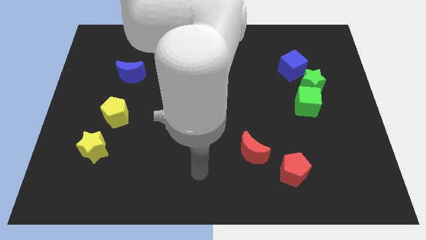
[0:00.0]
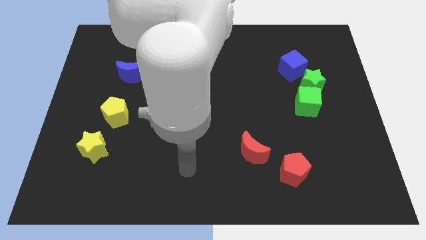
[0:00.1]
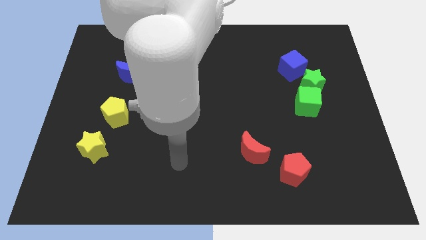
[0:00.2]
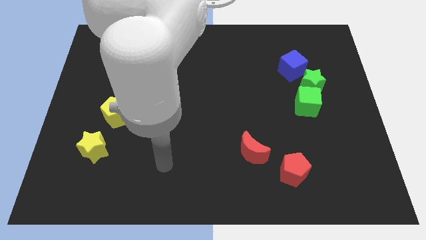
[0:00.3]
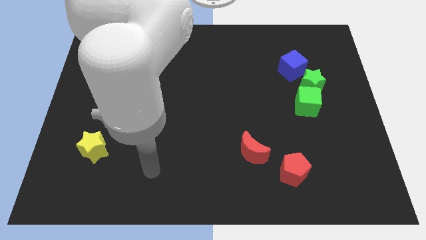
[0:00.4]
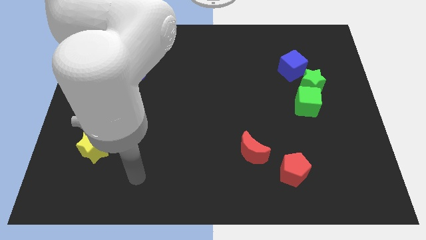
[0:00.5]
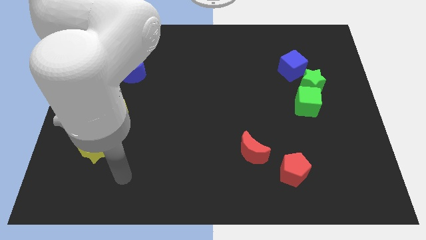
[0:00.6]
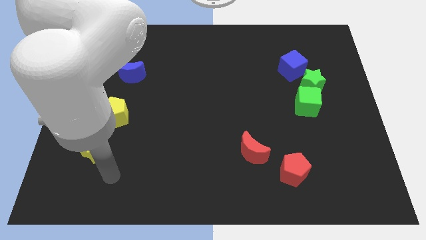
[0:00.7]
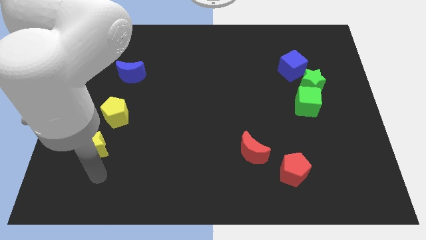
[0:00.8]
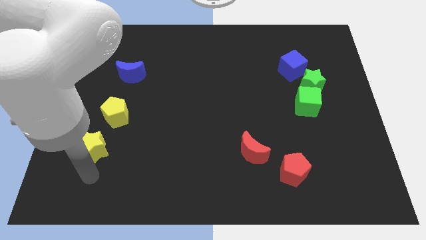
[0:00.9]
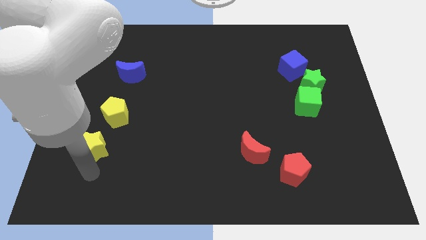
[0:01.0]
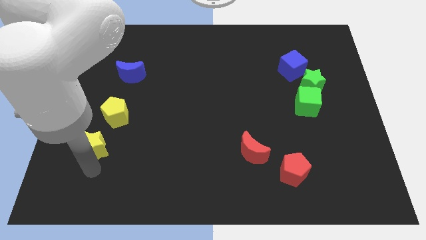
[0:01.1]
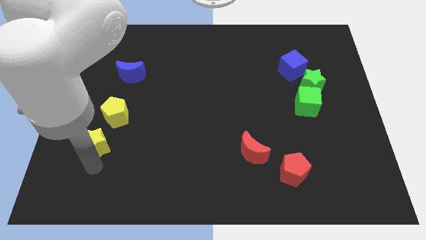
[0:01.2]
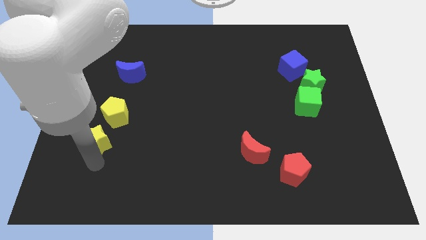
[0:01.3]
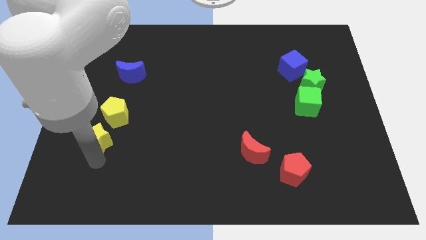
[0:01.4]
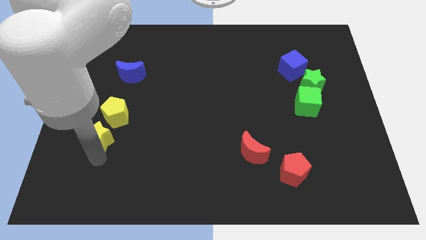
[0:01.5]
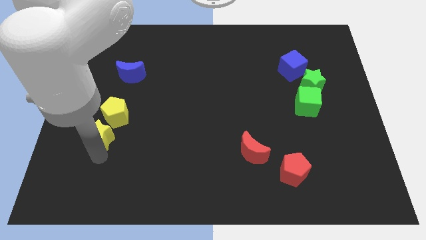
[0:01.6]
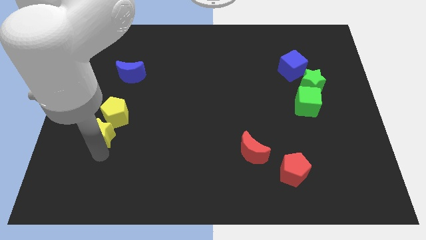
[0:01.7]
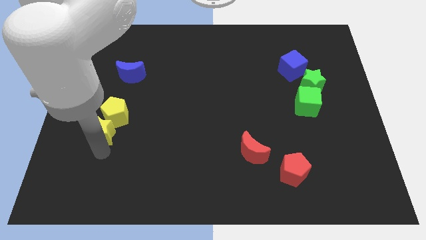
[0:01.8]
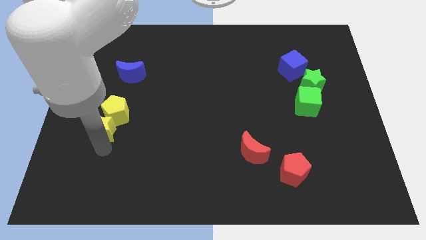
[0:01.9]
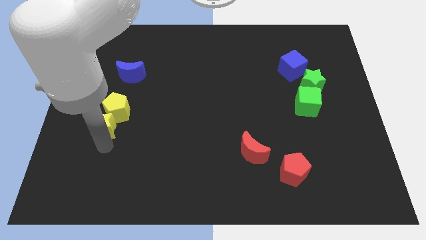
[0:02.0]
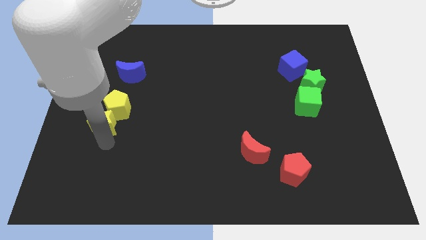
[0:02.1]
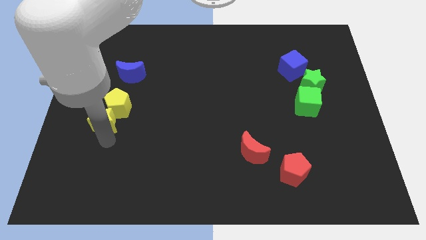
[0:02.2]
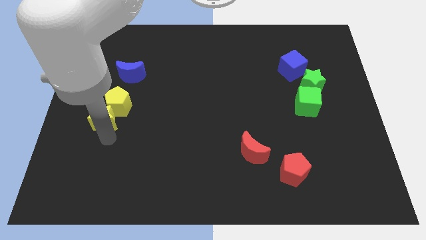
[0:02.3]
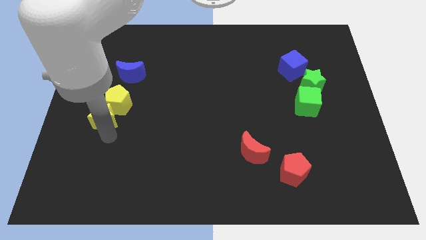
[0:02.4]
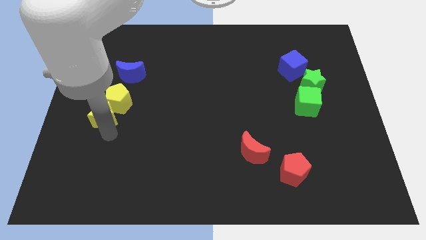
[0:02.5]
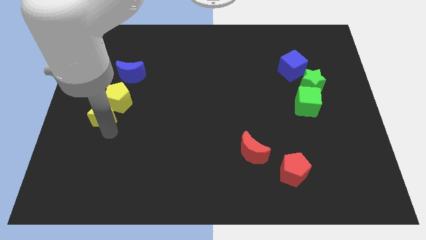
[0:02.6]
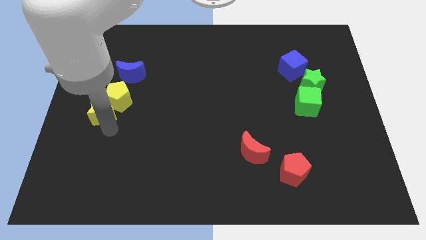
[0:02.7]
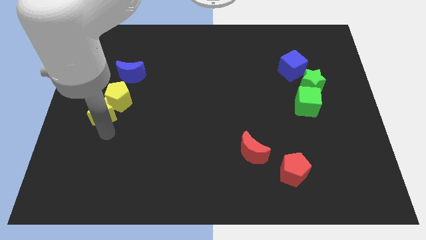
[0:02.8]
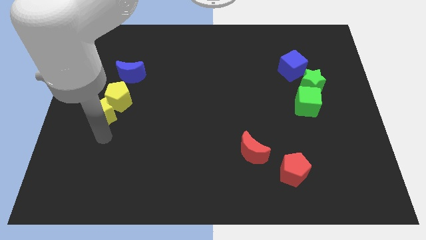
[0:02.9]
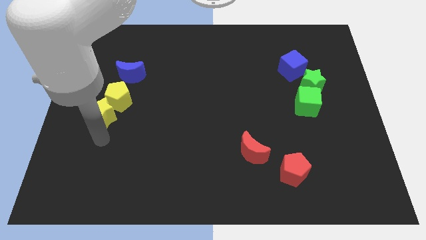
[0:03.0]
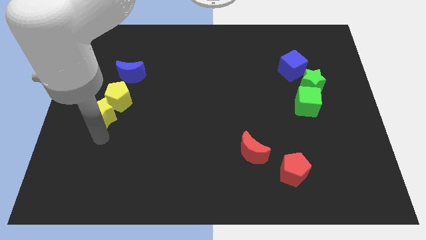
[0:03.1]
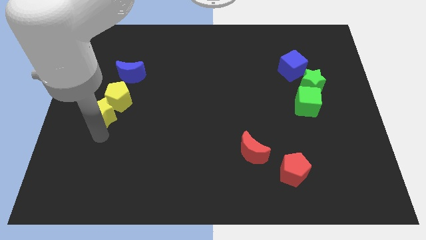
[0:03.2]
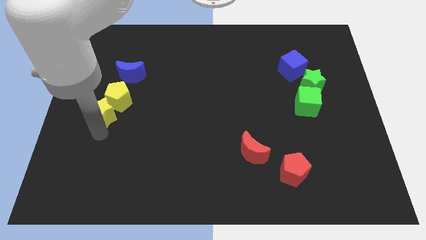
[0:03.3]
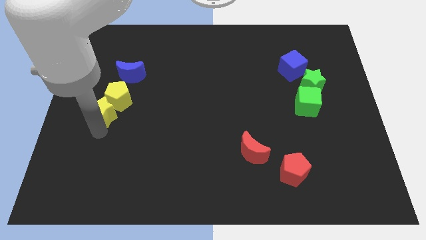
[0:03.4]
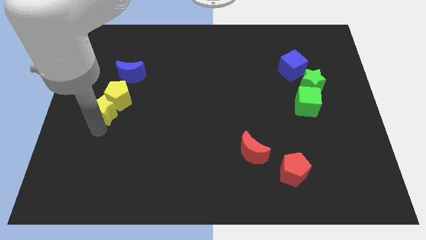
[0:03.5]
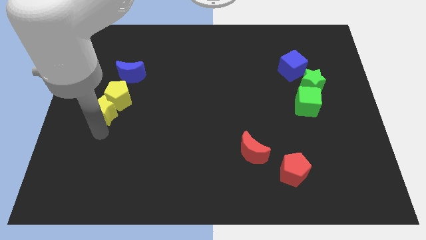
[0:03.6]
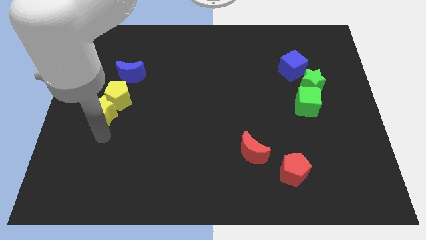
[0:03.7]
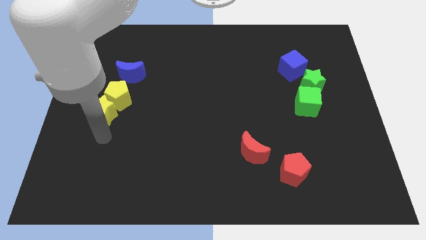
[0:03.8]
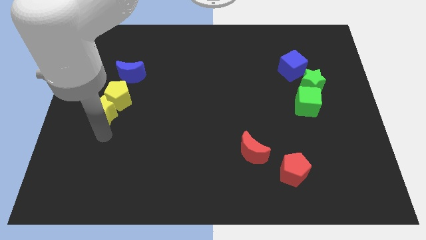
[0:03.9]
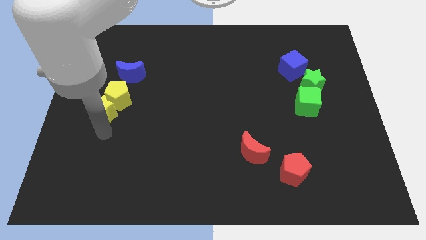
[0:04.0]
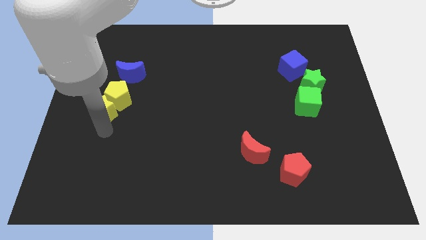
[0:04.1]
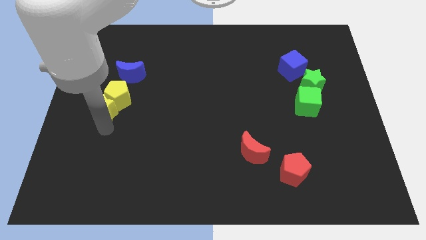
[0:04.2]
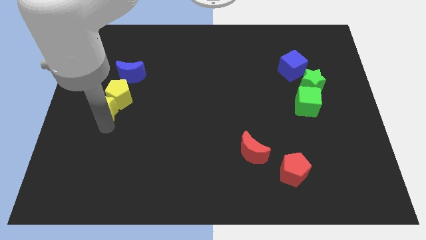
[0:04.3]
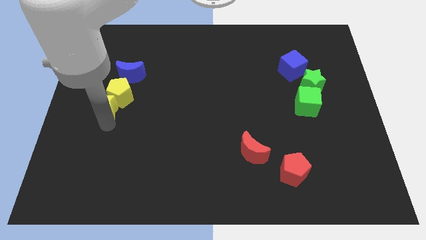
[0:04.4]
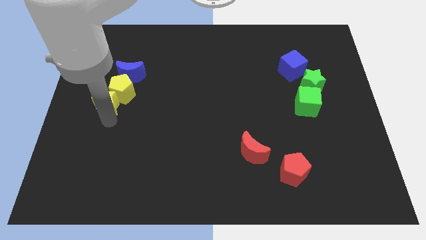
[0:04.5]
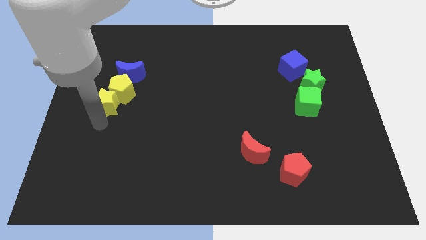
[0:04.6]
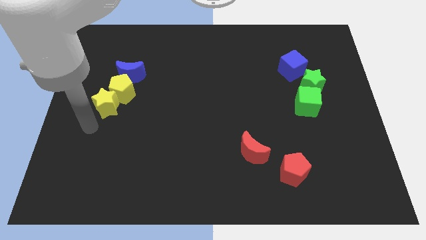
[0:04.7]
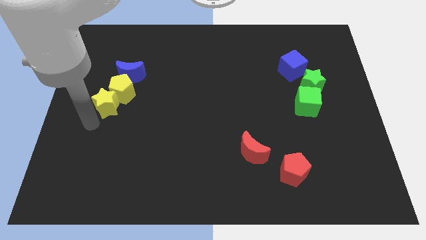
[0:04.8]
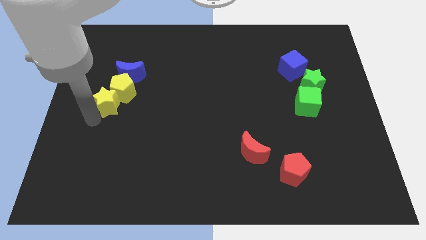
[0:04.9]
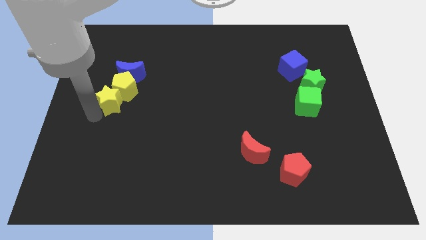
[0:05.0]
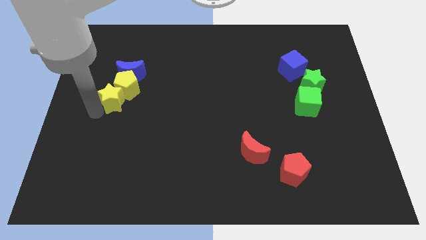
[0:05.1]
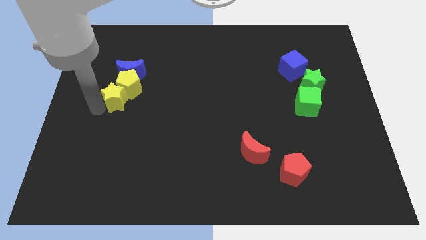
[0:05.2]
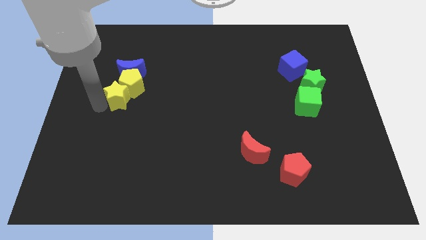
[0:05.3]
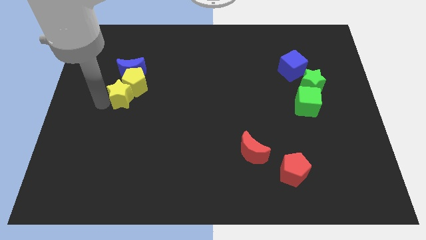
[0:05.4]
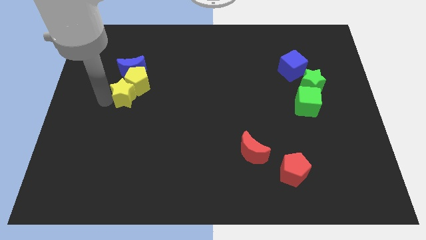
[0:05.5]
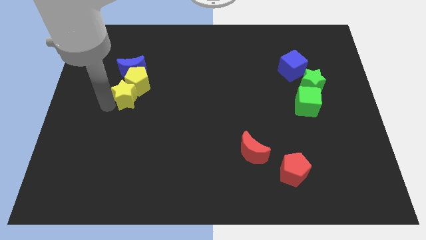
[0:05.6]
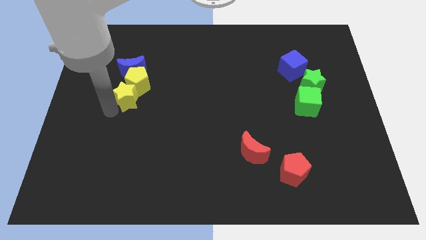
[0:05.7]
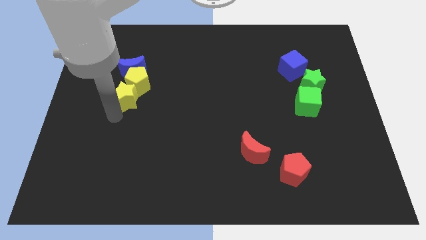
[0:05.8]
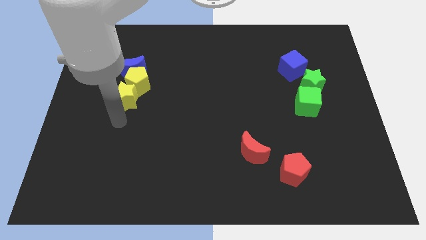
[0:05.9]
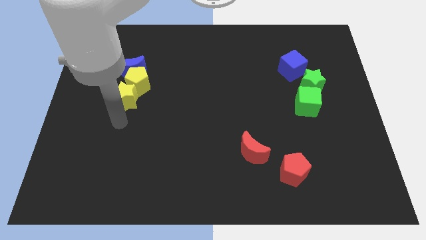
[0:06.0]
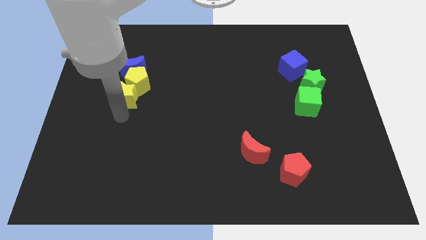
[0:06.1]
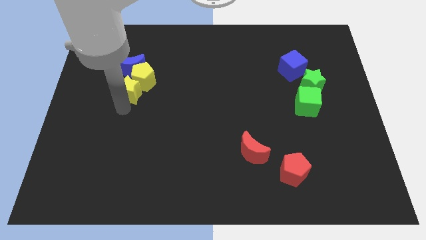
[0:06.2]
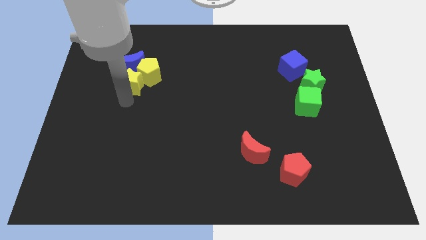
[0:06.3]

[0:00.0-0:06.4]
push the yellow star close to the blue moon
